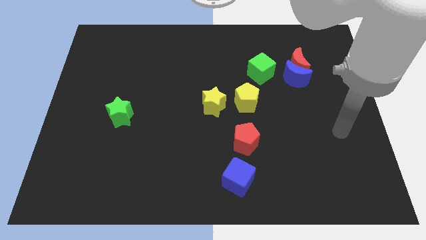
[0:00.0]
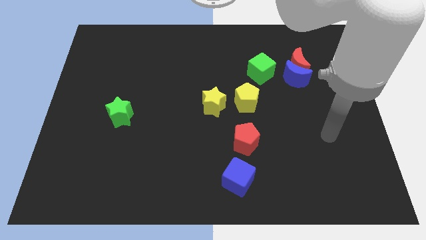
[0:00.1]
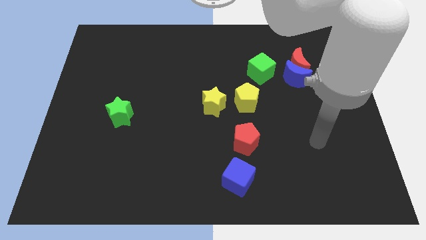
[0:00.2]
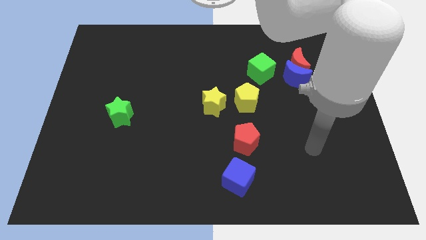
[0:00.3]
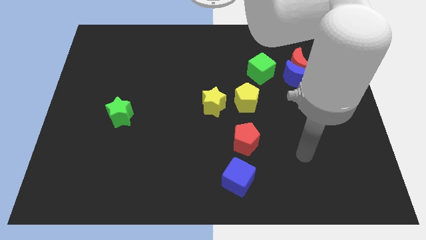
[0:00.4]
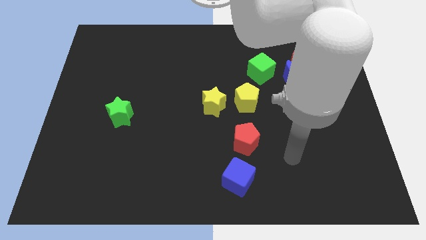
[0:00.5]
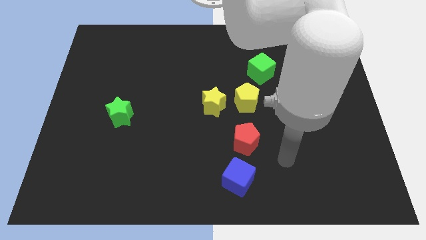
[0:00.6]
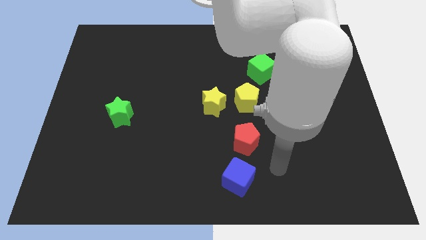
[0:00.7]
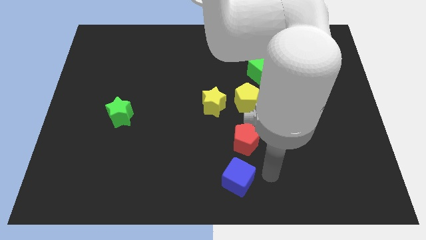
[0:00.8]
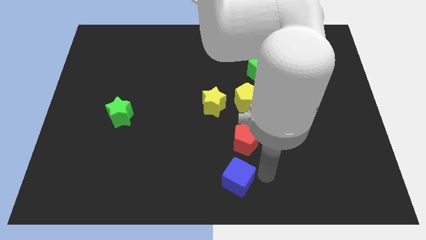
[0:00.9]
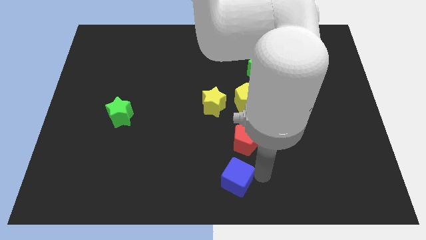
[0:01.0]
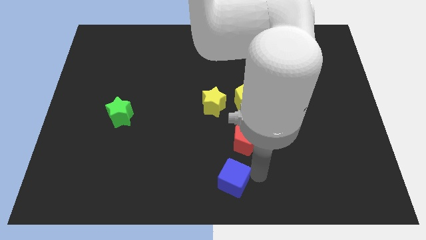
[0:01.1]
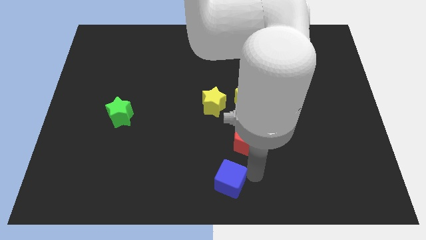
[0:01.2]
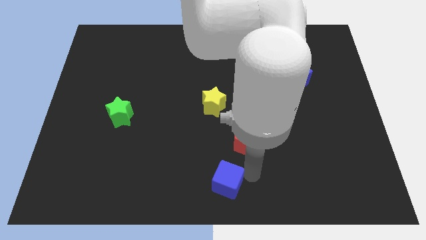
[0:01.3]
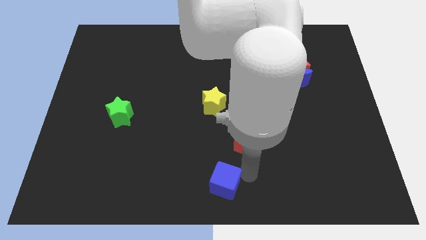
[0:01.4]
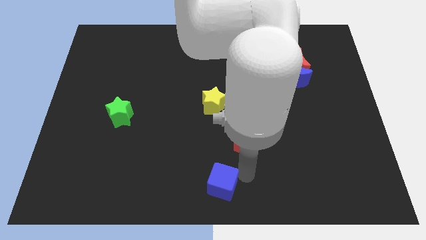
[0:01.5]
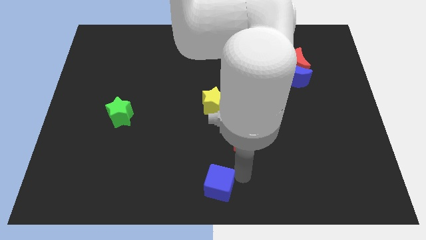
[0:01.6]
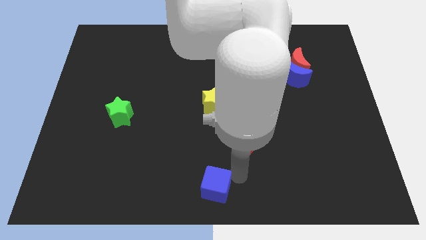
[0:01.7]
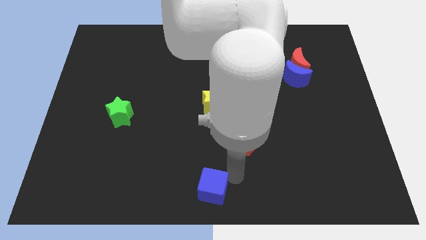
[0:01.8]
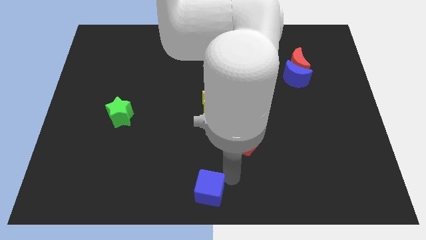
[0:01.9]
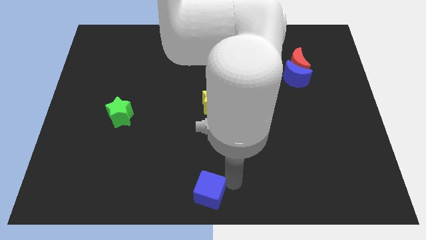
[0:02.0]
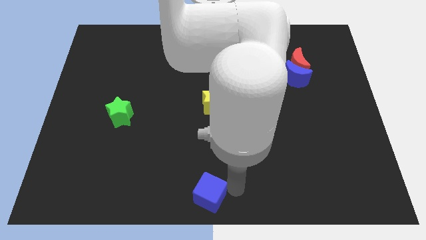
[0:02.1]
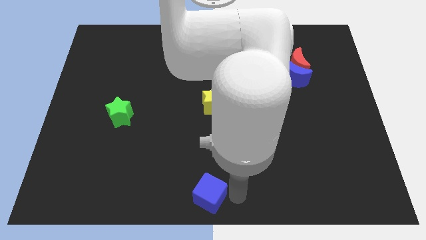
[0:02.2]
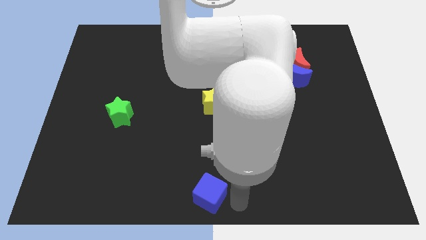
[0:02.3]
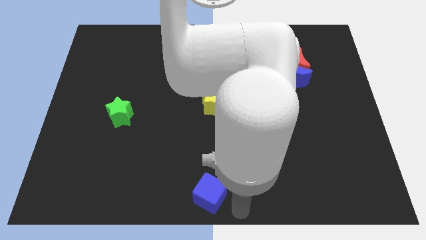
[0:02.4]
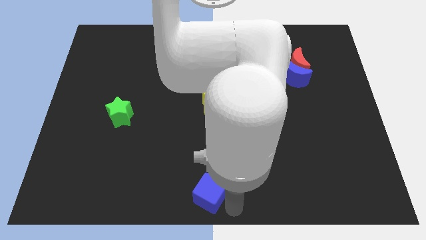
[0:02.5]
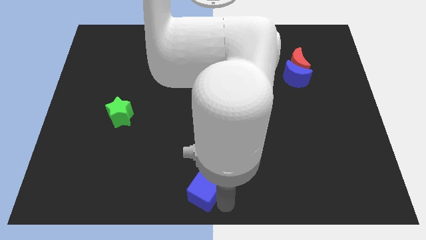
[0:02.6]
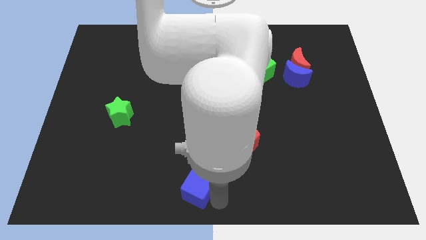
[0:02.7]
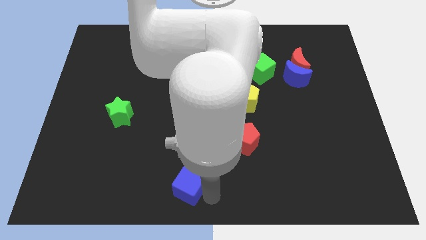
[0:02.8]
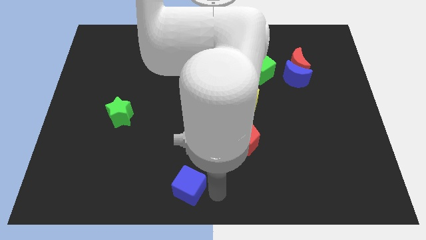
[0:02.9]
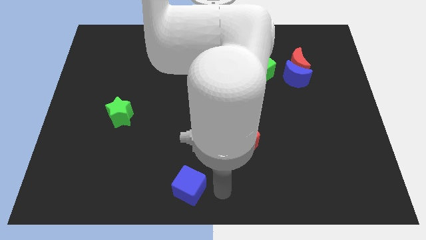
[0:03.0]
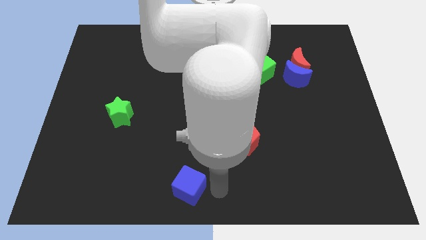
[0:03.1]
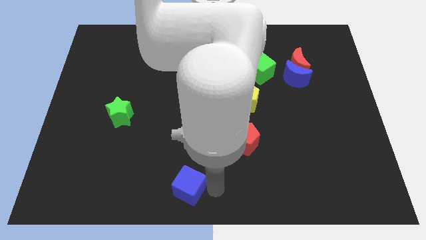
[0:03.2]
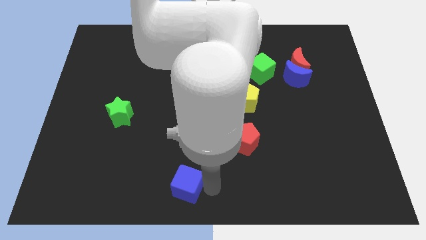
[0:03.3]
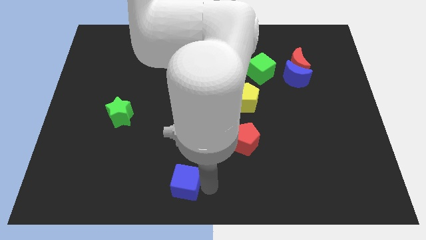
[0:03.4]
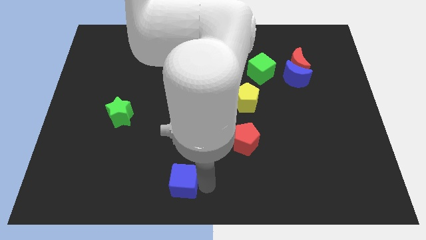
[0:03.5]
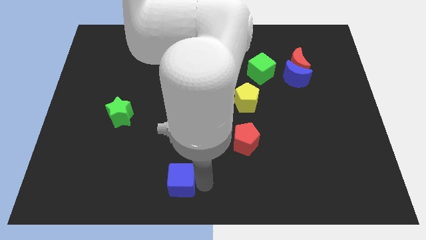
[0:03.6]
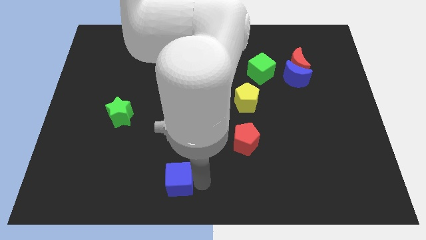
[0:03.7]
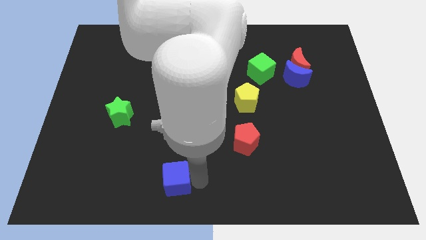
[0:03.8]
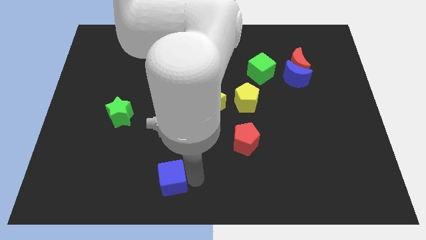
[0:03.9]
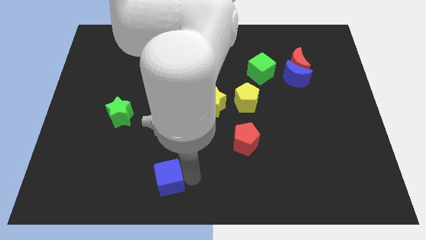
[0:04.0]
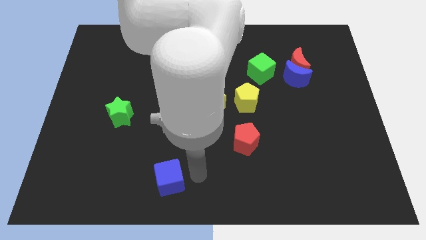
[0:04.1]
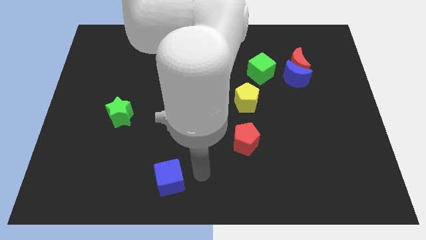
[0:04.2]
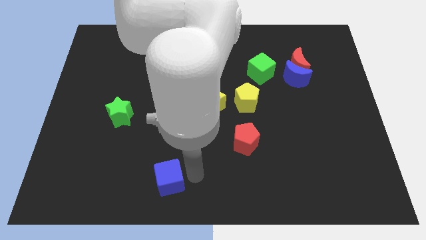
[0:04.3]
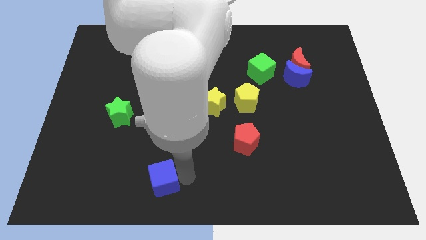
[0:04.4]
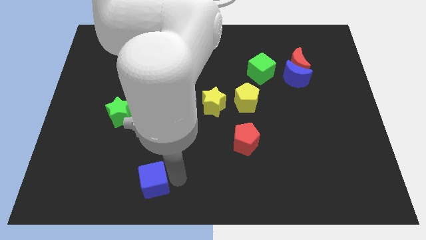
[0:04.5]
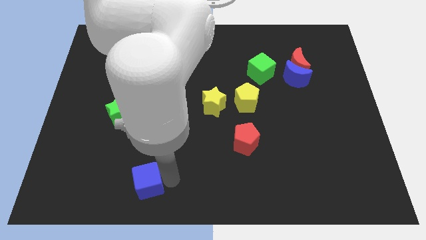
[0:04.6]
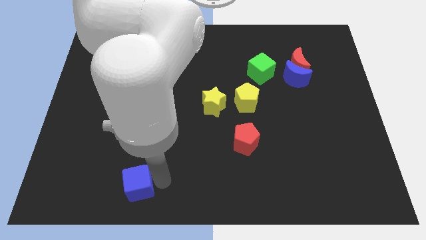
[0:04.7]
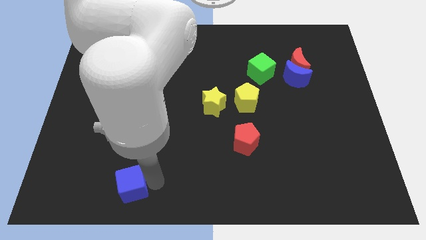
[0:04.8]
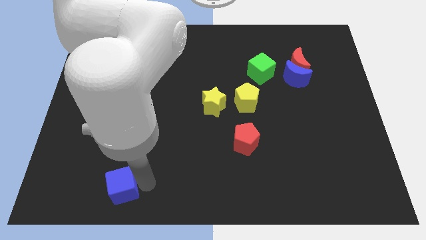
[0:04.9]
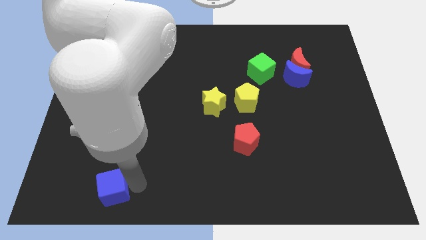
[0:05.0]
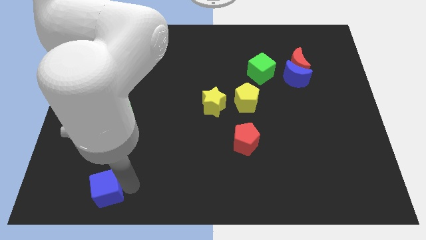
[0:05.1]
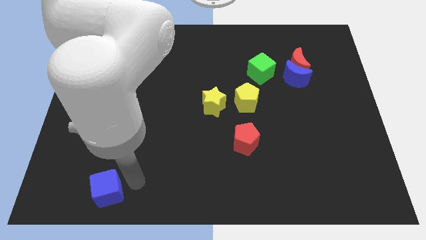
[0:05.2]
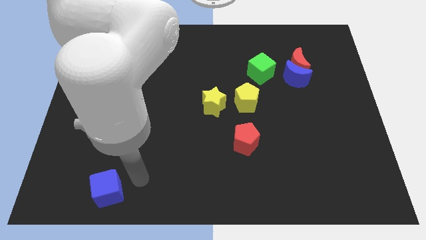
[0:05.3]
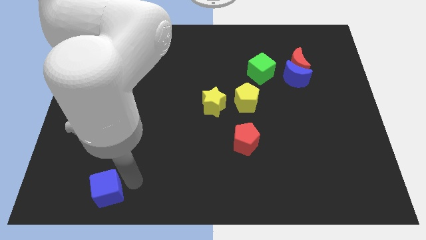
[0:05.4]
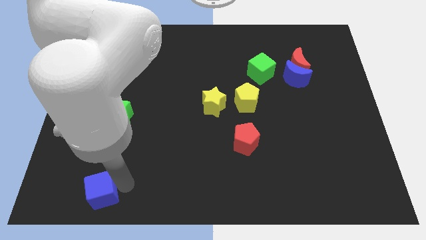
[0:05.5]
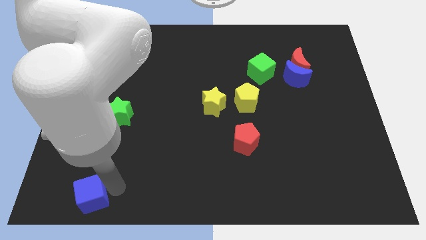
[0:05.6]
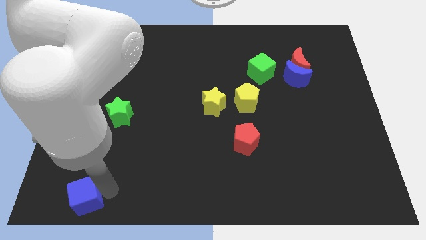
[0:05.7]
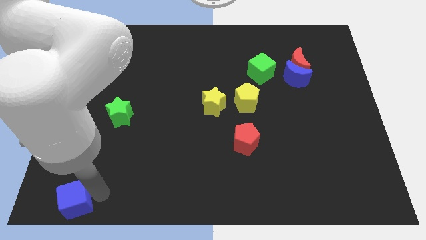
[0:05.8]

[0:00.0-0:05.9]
slide the blue cube to the bottom left of the board

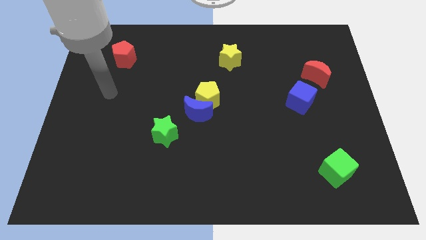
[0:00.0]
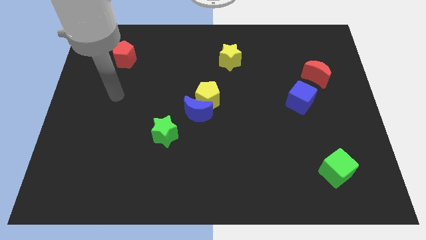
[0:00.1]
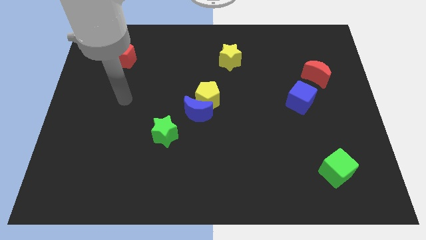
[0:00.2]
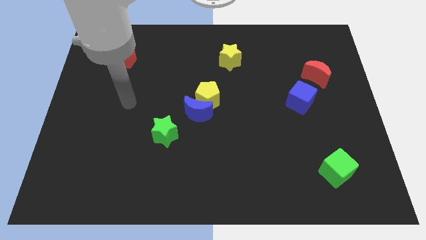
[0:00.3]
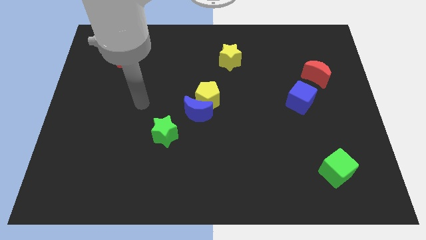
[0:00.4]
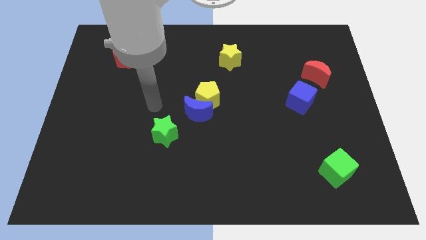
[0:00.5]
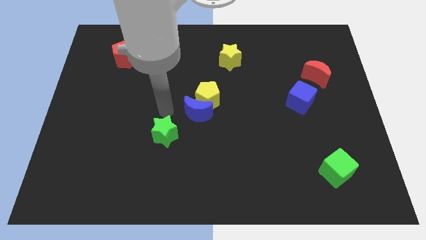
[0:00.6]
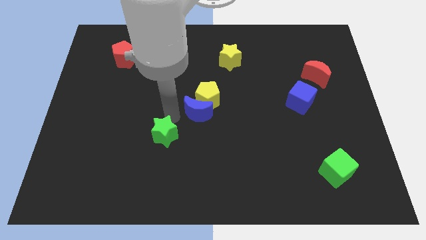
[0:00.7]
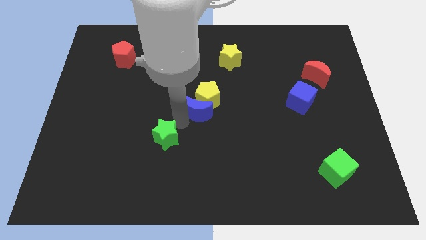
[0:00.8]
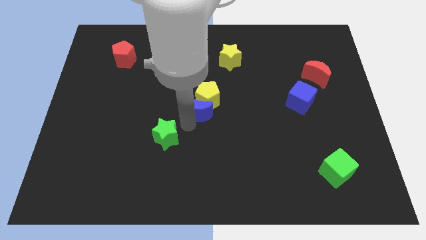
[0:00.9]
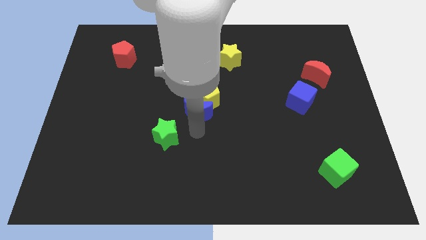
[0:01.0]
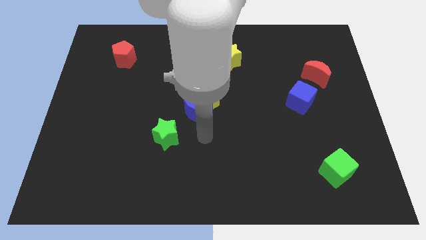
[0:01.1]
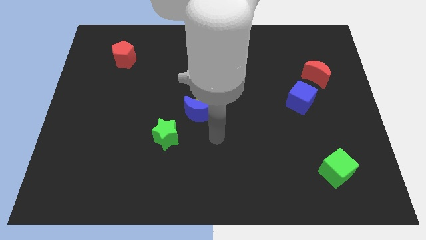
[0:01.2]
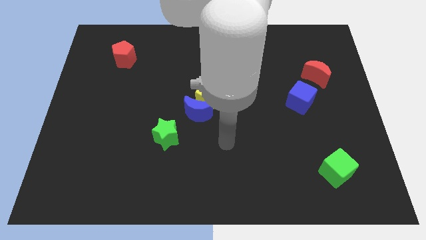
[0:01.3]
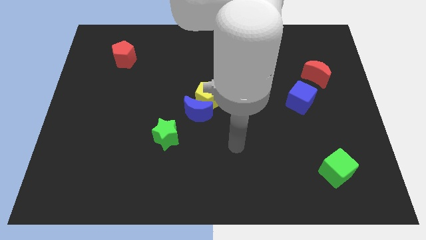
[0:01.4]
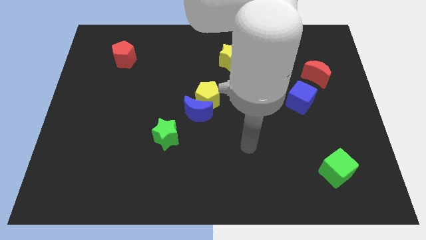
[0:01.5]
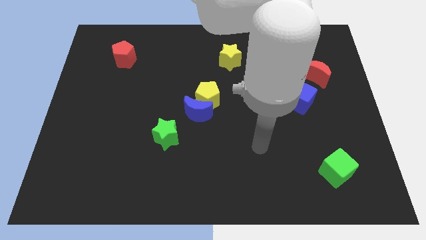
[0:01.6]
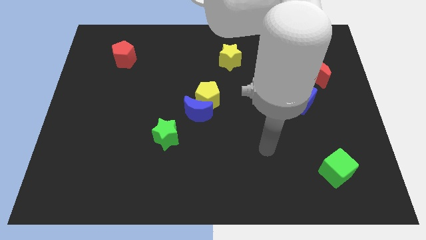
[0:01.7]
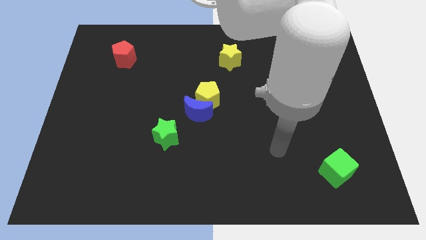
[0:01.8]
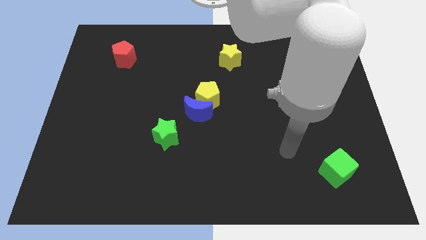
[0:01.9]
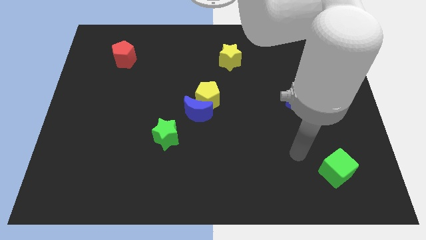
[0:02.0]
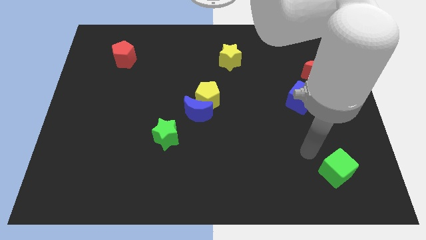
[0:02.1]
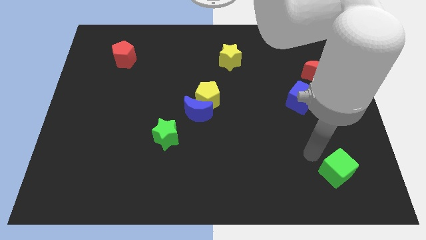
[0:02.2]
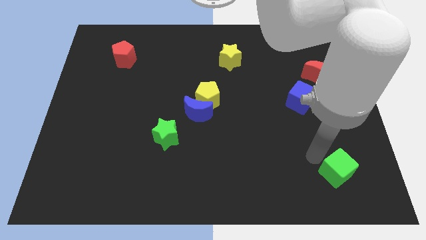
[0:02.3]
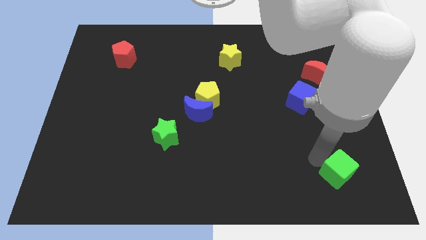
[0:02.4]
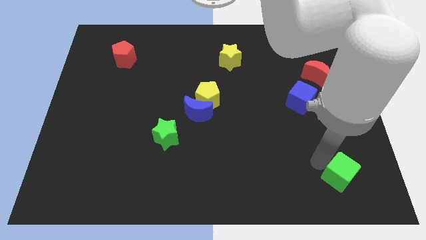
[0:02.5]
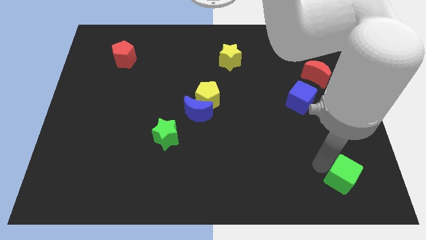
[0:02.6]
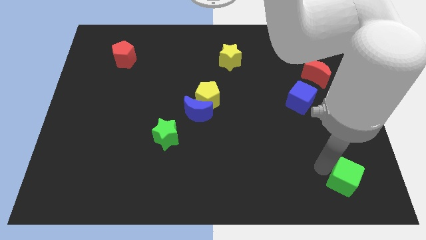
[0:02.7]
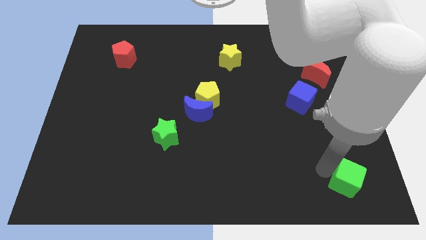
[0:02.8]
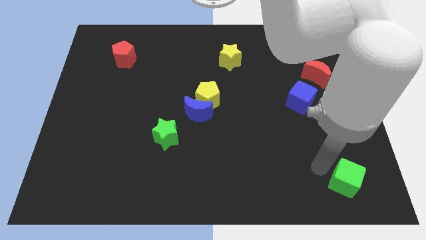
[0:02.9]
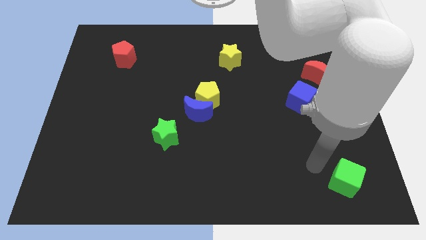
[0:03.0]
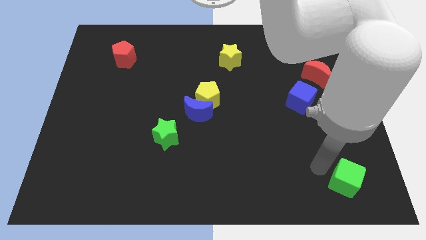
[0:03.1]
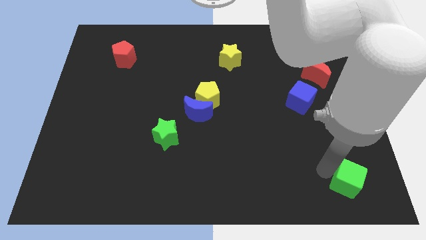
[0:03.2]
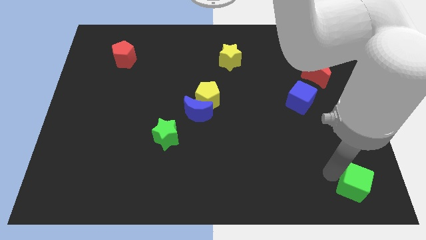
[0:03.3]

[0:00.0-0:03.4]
move the green cube to the lower right corner
